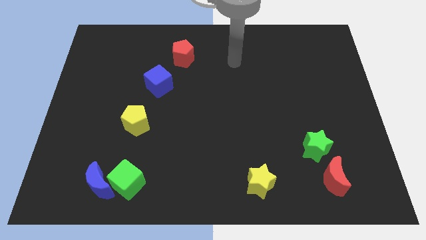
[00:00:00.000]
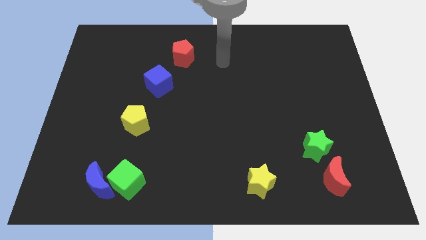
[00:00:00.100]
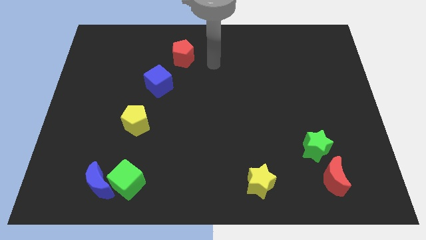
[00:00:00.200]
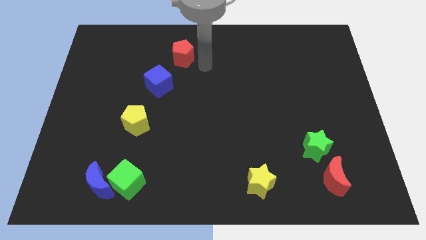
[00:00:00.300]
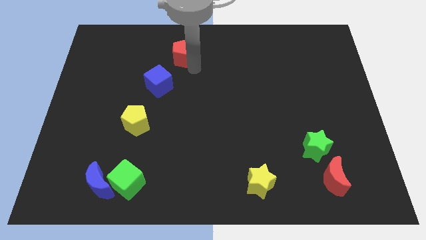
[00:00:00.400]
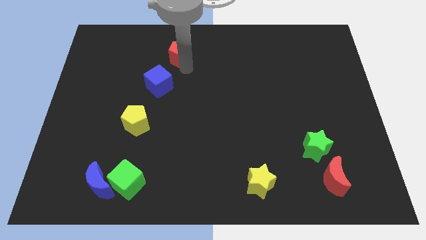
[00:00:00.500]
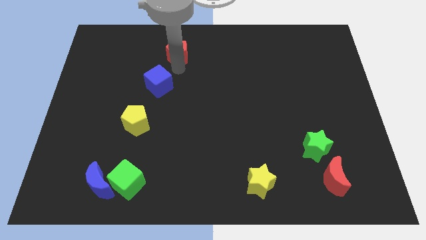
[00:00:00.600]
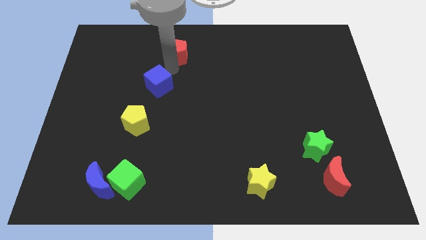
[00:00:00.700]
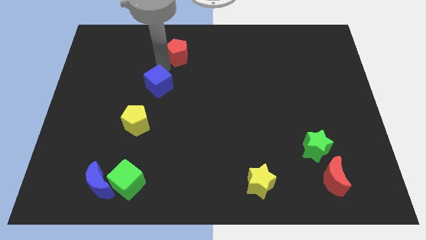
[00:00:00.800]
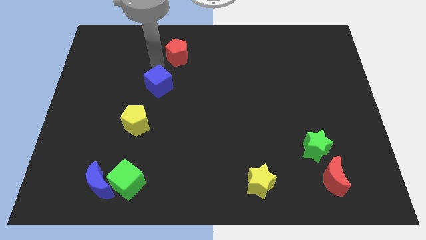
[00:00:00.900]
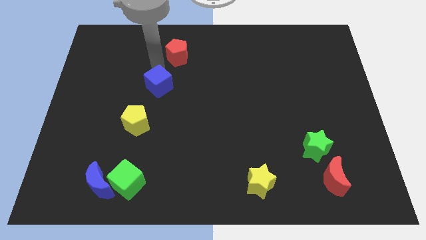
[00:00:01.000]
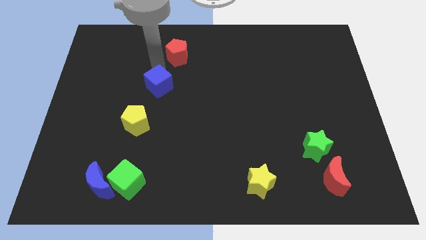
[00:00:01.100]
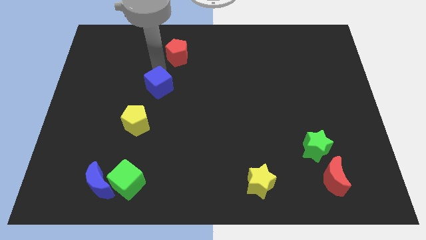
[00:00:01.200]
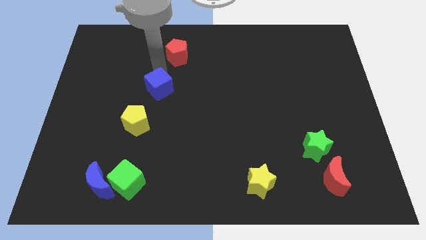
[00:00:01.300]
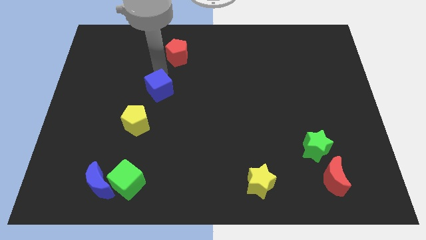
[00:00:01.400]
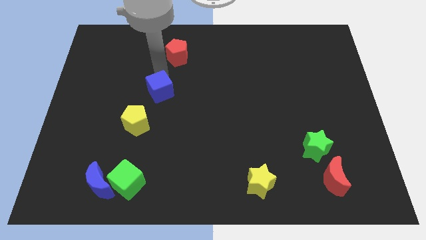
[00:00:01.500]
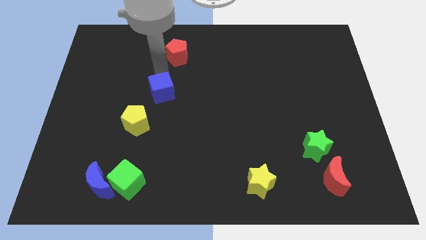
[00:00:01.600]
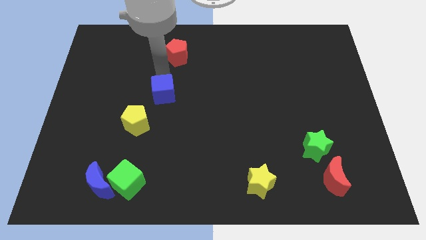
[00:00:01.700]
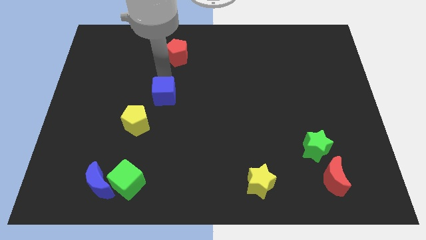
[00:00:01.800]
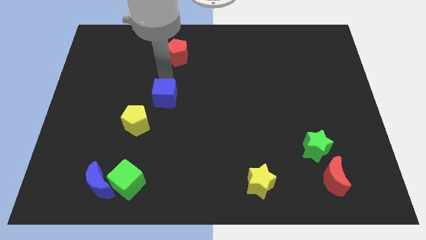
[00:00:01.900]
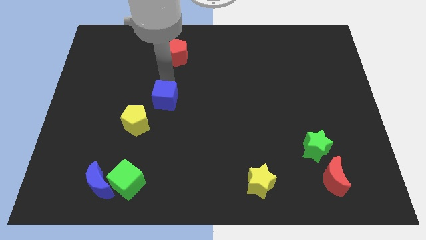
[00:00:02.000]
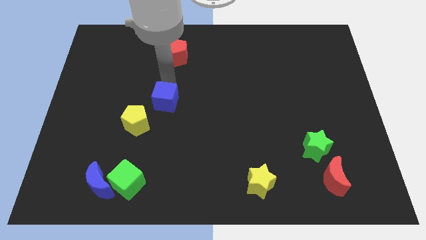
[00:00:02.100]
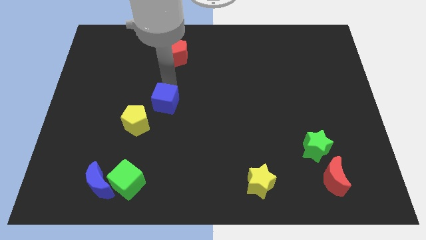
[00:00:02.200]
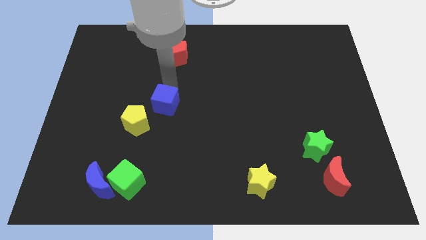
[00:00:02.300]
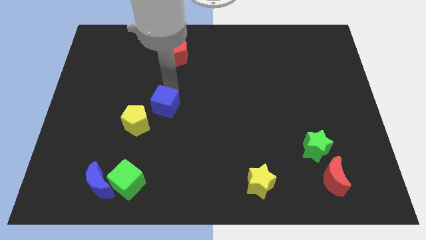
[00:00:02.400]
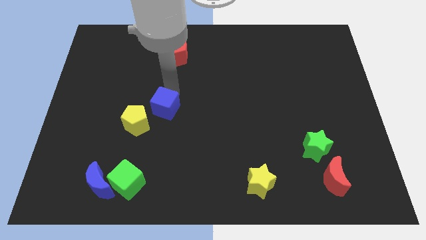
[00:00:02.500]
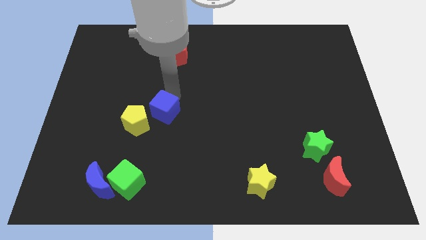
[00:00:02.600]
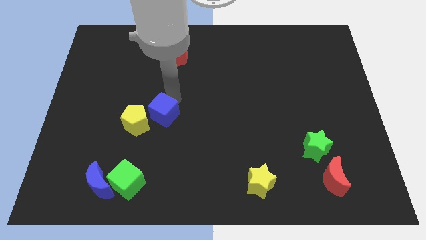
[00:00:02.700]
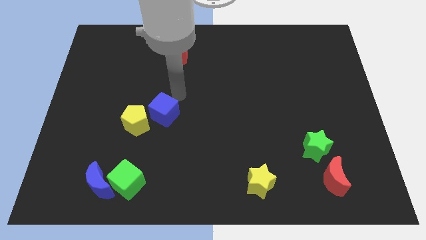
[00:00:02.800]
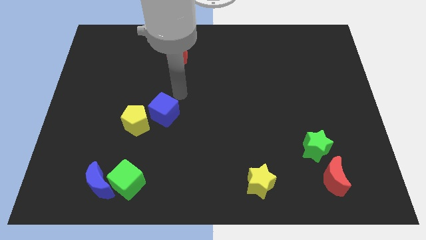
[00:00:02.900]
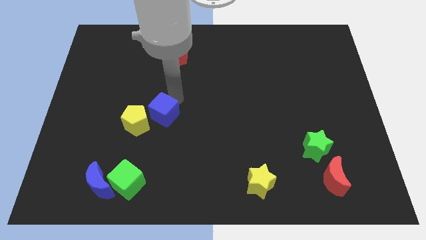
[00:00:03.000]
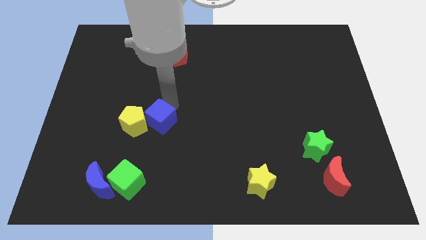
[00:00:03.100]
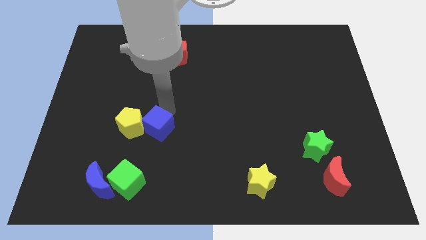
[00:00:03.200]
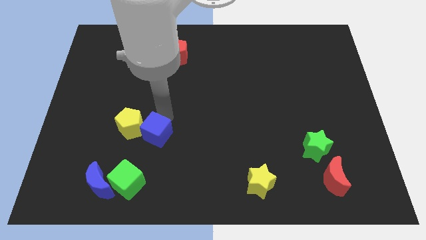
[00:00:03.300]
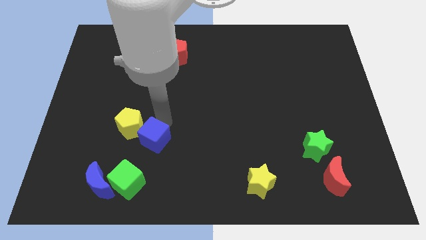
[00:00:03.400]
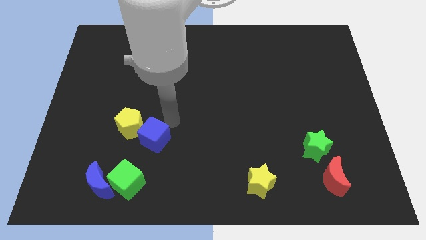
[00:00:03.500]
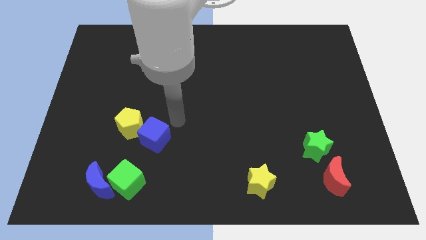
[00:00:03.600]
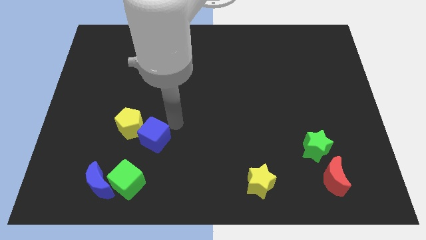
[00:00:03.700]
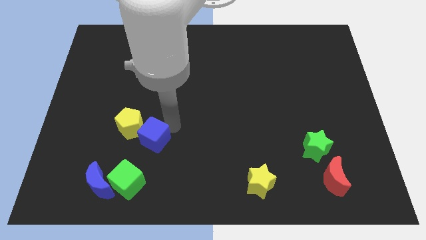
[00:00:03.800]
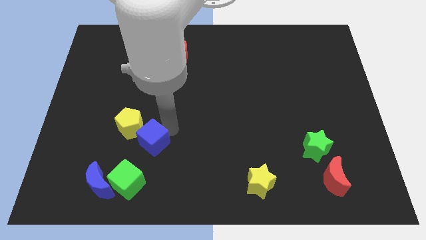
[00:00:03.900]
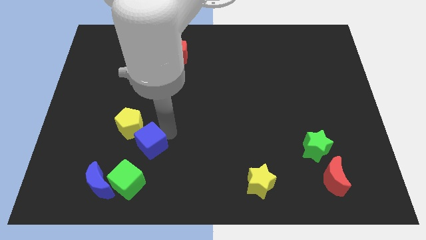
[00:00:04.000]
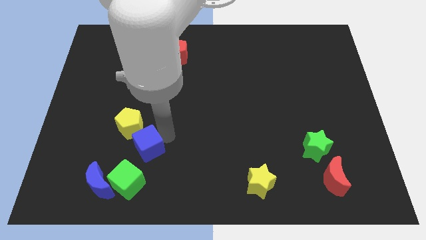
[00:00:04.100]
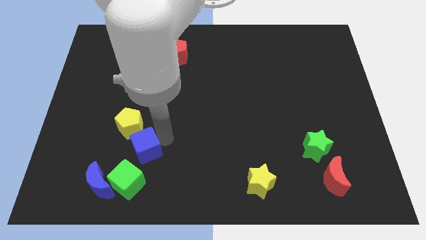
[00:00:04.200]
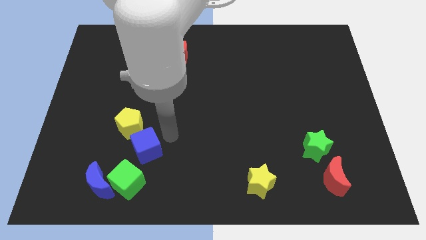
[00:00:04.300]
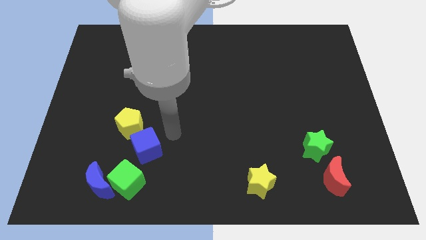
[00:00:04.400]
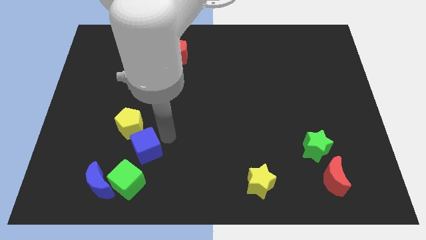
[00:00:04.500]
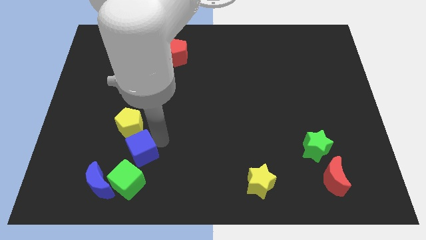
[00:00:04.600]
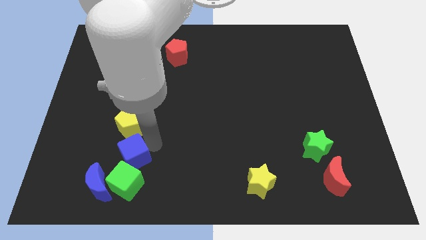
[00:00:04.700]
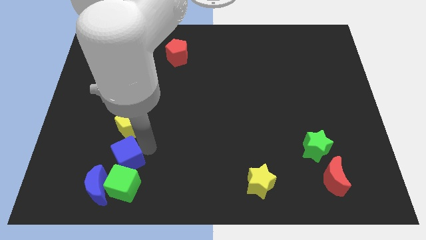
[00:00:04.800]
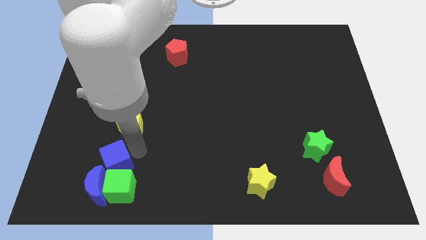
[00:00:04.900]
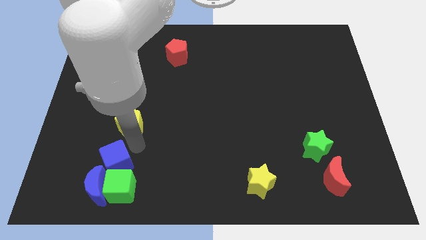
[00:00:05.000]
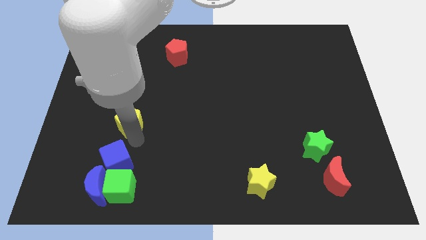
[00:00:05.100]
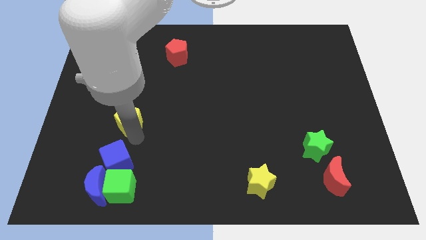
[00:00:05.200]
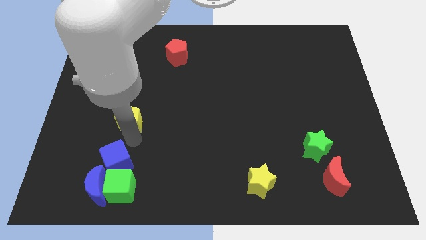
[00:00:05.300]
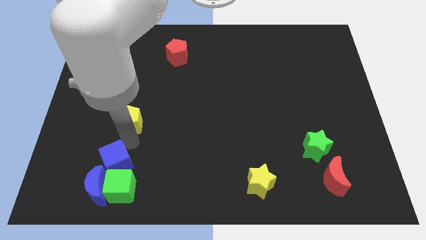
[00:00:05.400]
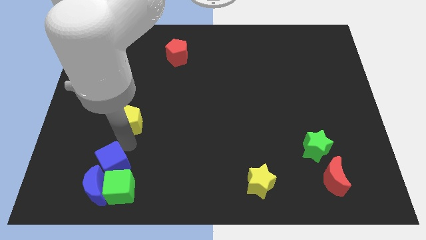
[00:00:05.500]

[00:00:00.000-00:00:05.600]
slide the blue cube towards the blue moon

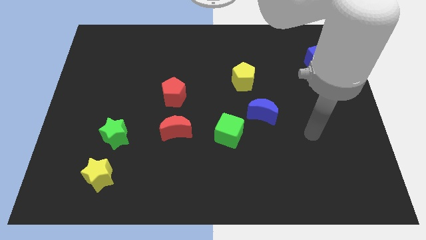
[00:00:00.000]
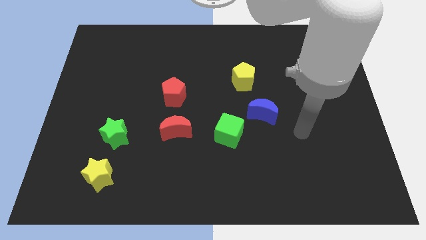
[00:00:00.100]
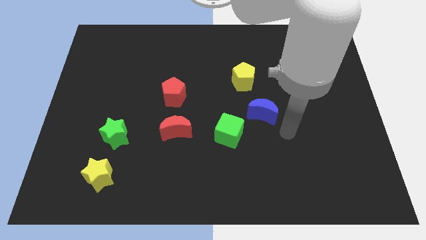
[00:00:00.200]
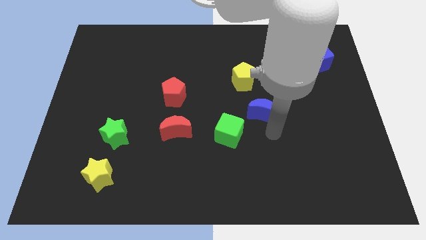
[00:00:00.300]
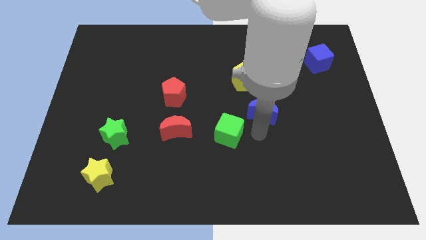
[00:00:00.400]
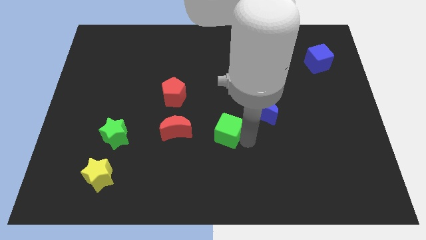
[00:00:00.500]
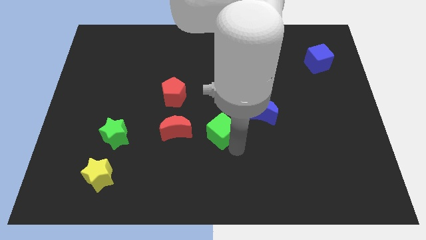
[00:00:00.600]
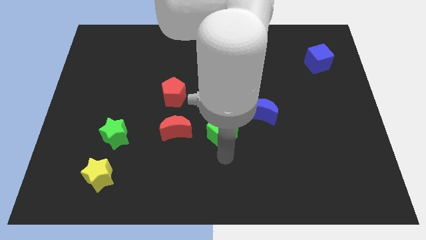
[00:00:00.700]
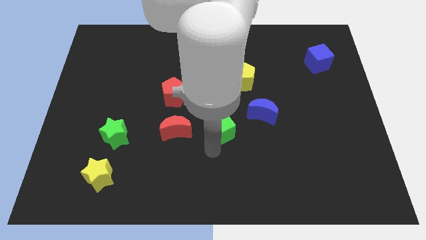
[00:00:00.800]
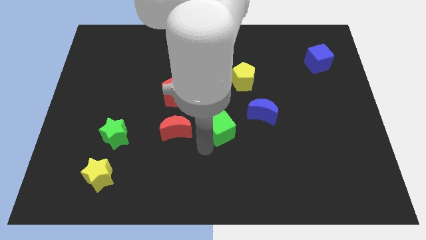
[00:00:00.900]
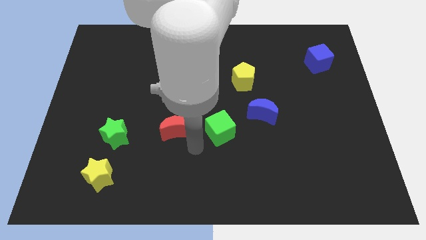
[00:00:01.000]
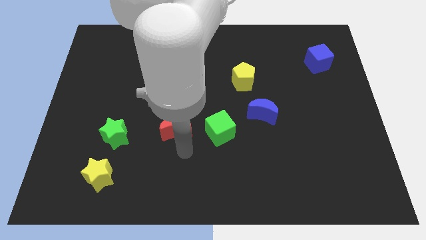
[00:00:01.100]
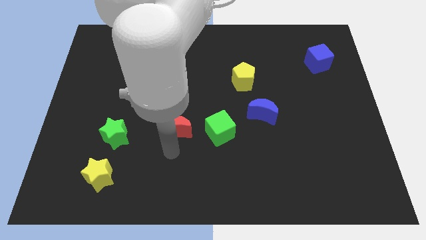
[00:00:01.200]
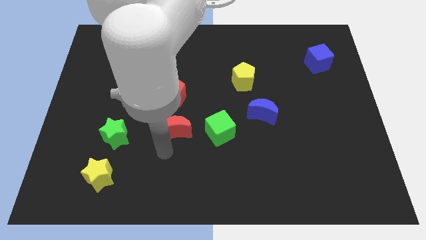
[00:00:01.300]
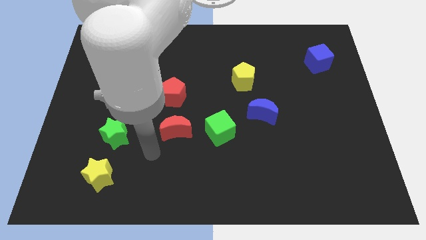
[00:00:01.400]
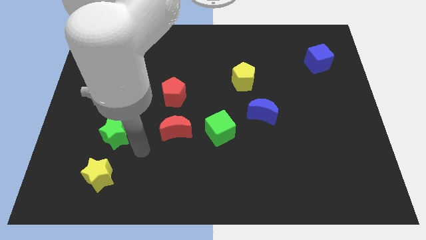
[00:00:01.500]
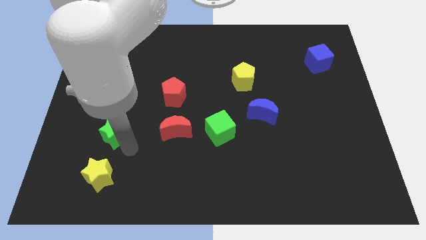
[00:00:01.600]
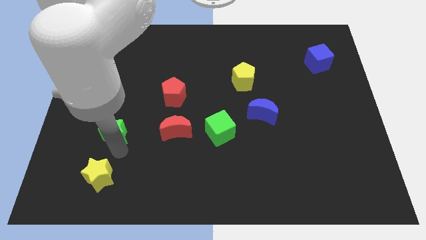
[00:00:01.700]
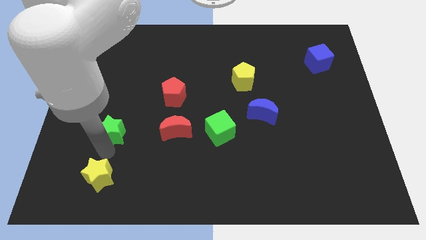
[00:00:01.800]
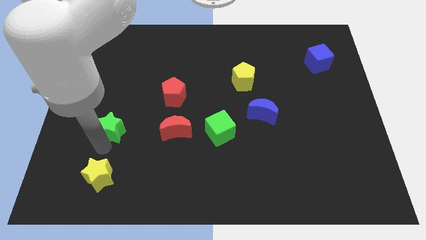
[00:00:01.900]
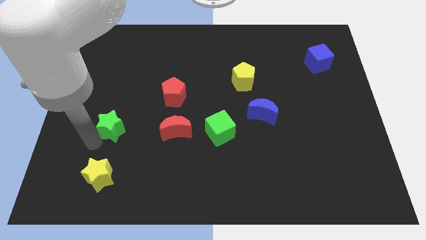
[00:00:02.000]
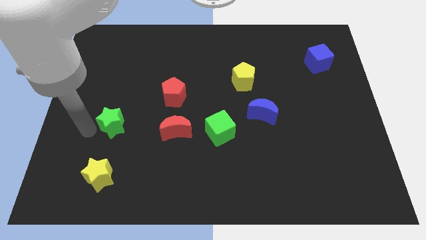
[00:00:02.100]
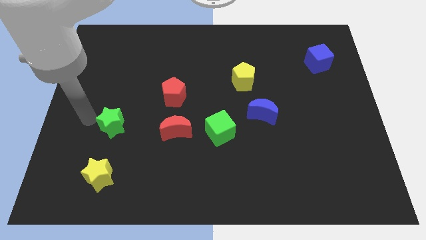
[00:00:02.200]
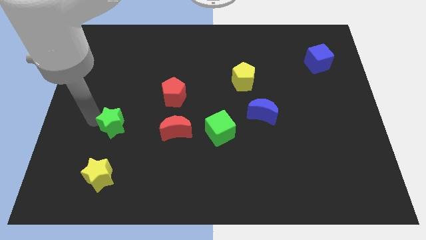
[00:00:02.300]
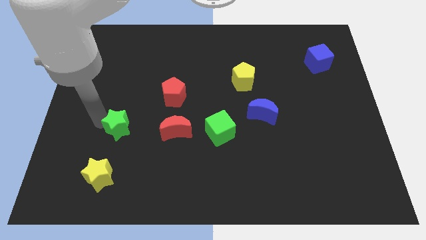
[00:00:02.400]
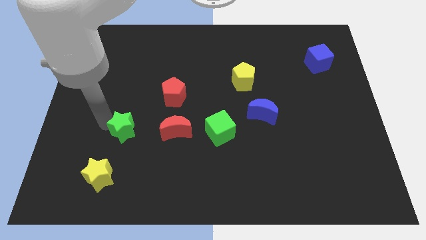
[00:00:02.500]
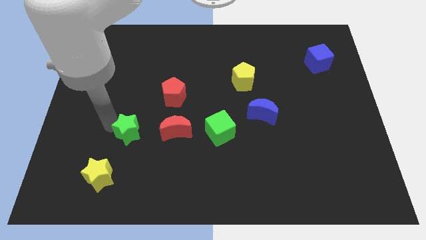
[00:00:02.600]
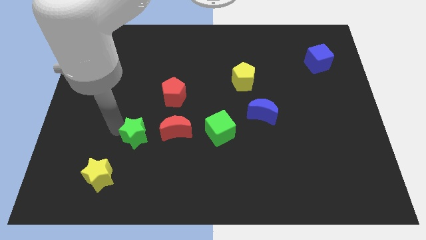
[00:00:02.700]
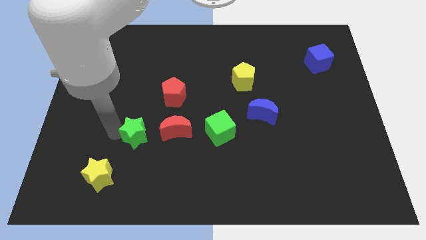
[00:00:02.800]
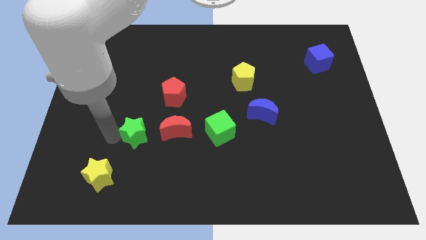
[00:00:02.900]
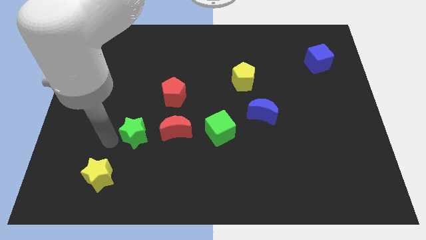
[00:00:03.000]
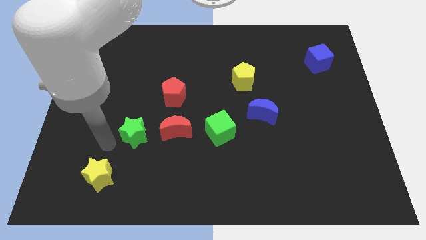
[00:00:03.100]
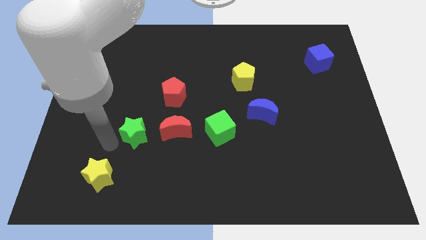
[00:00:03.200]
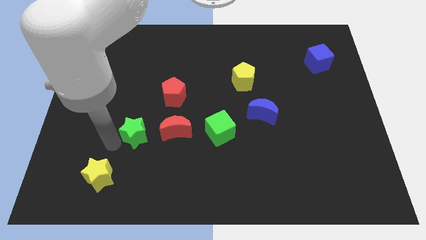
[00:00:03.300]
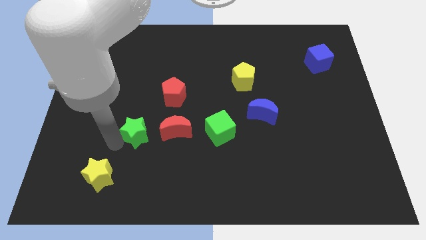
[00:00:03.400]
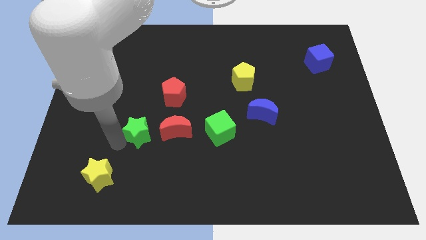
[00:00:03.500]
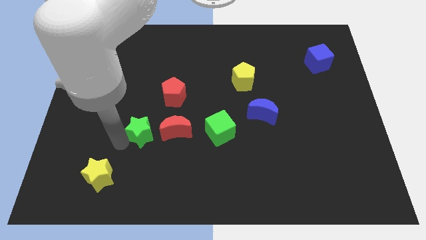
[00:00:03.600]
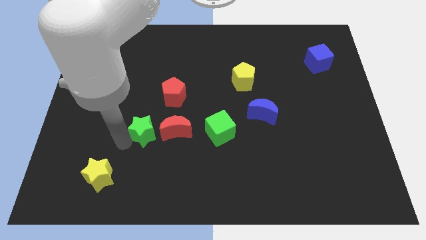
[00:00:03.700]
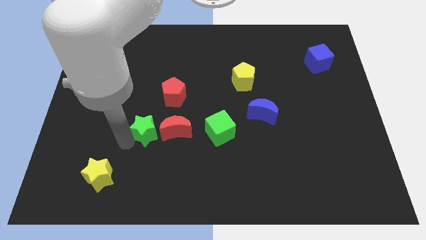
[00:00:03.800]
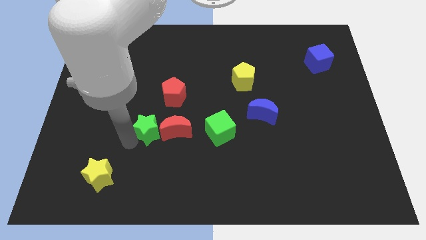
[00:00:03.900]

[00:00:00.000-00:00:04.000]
move the green star next to the red moon
